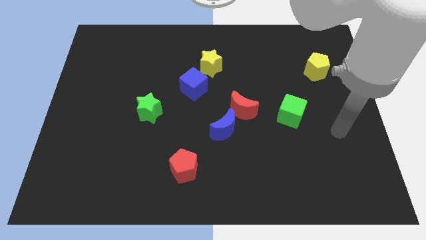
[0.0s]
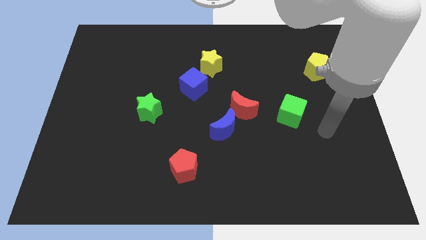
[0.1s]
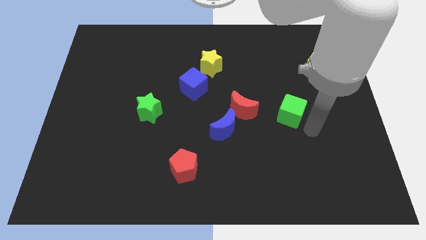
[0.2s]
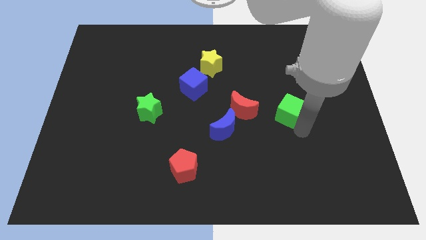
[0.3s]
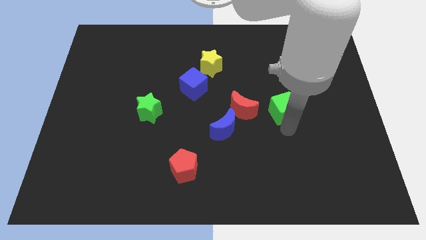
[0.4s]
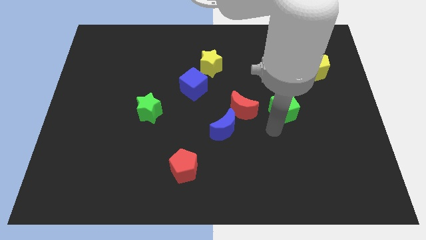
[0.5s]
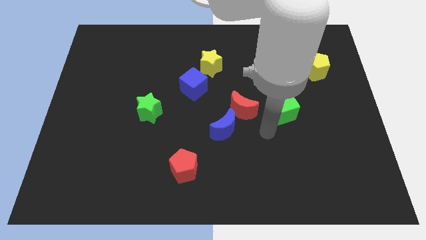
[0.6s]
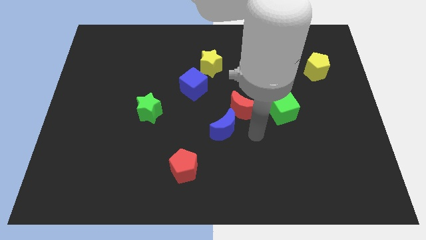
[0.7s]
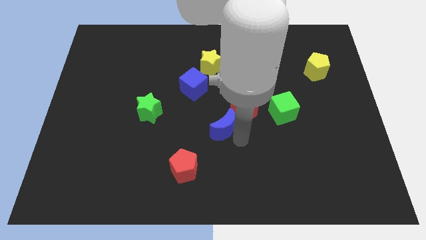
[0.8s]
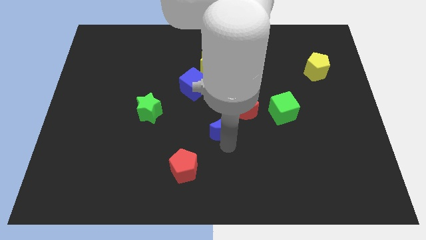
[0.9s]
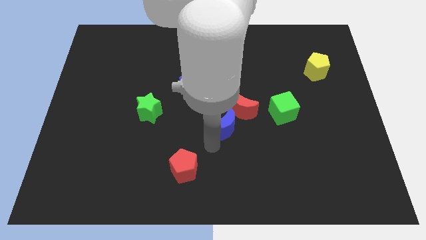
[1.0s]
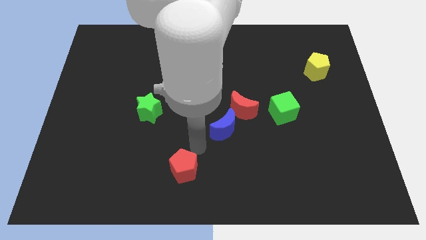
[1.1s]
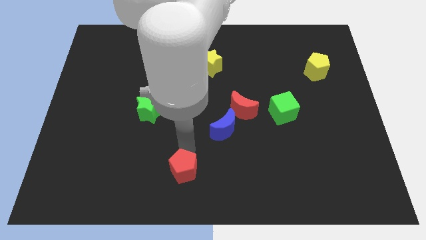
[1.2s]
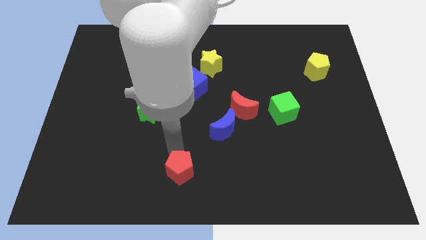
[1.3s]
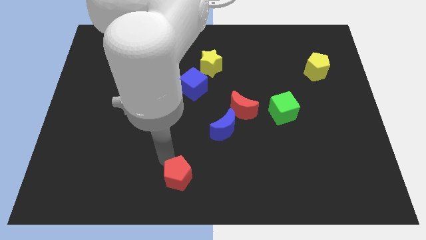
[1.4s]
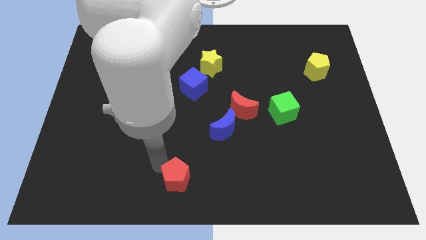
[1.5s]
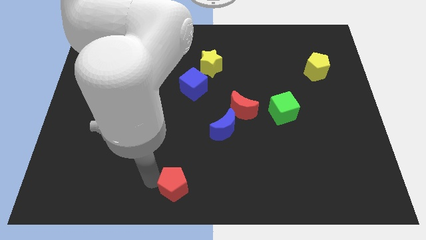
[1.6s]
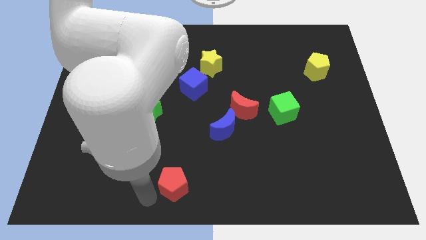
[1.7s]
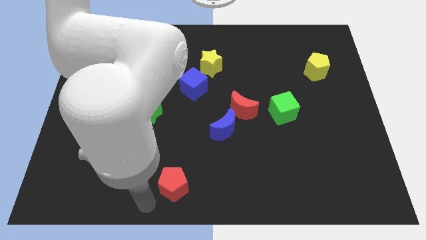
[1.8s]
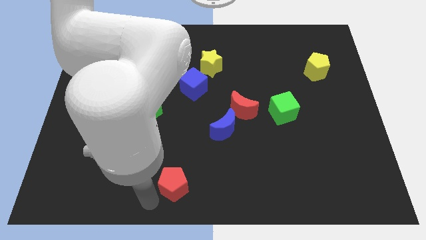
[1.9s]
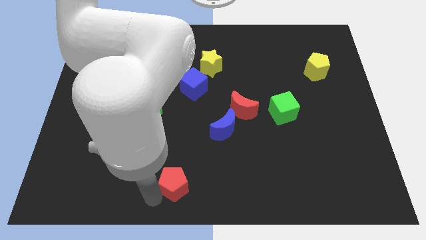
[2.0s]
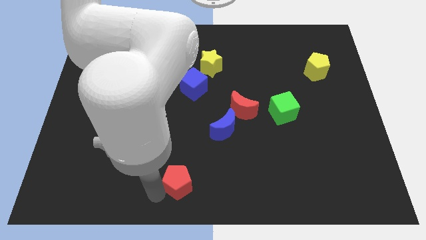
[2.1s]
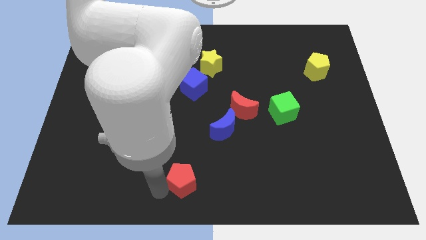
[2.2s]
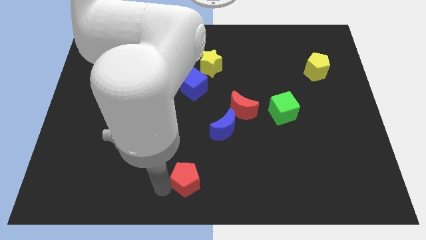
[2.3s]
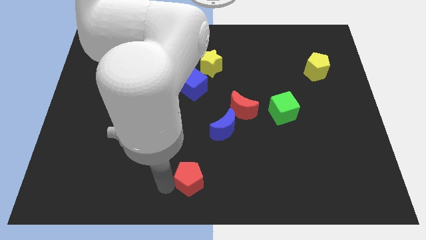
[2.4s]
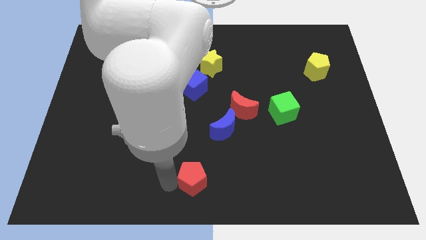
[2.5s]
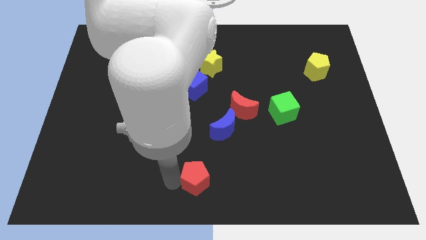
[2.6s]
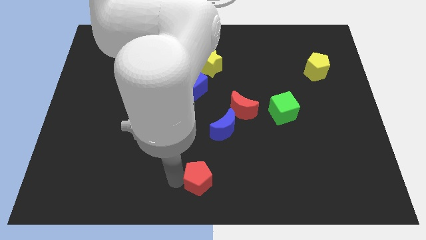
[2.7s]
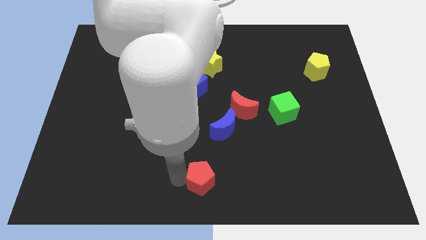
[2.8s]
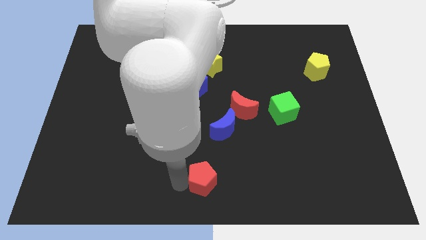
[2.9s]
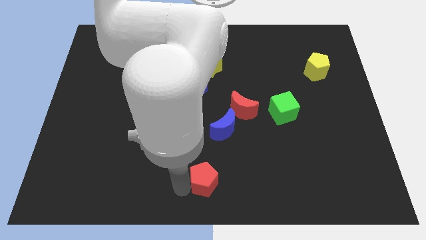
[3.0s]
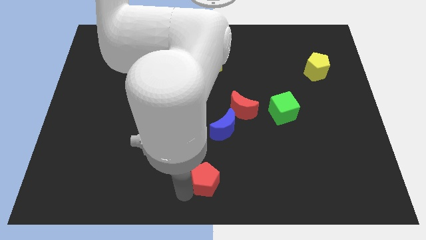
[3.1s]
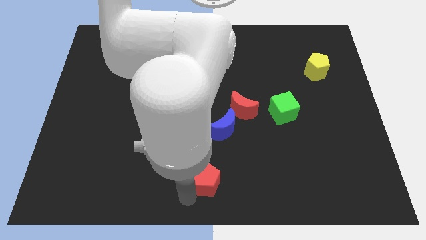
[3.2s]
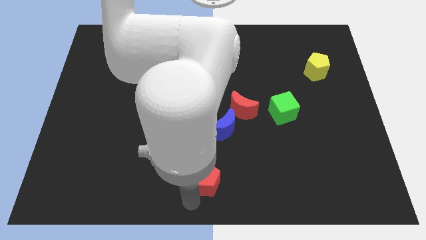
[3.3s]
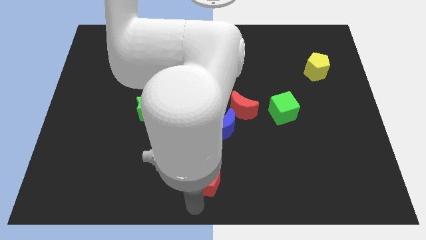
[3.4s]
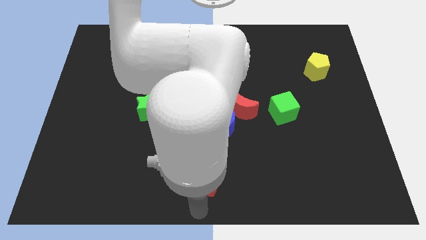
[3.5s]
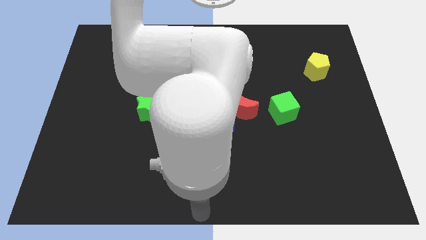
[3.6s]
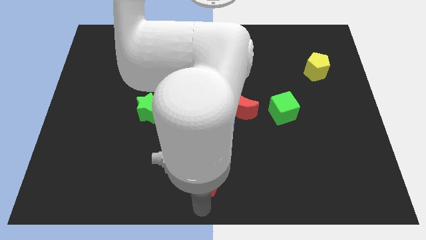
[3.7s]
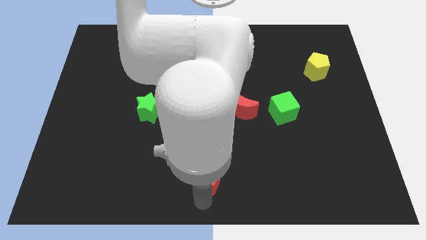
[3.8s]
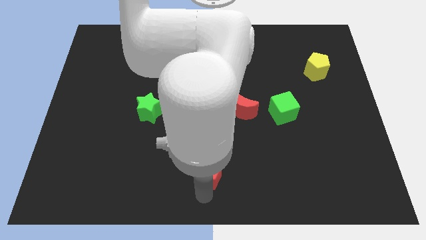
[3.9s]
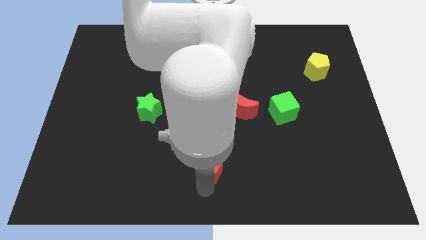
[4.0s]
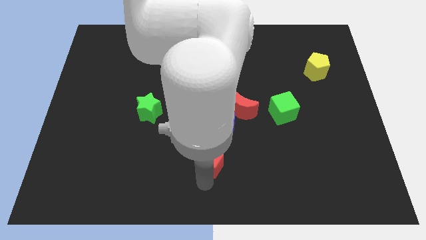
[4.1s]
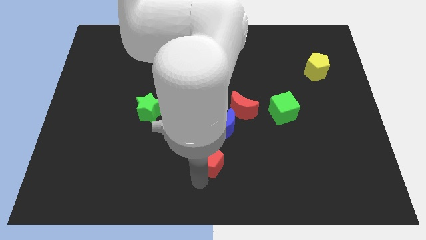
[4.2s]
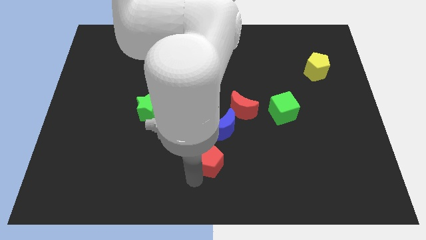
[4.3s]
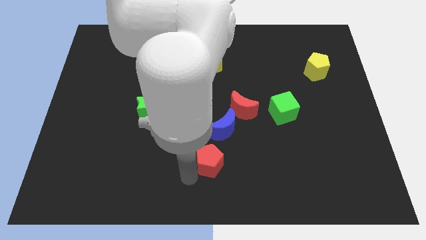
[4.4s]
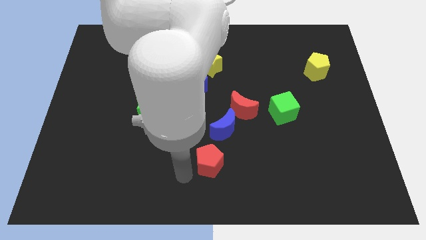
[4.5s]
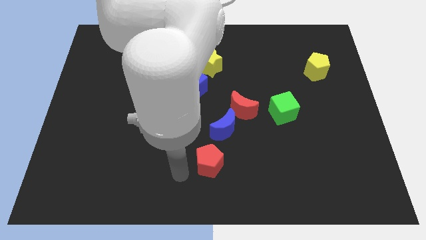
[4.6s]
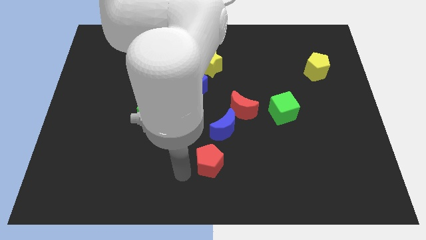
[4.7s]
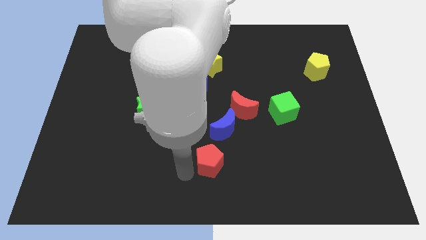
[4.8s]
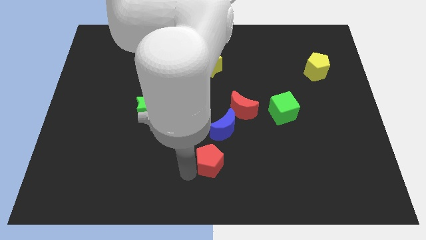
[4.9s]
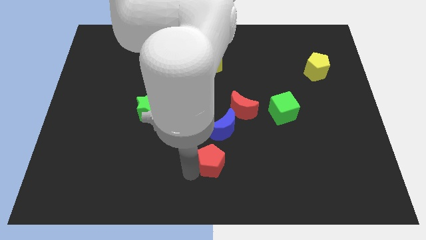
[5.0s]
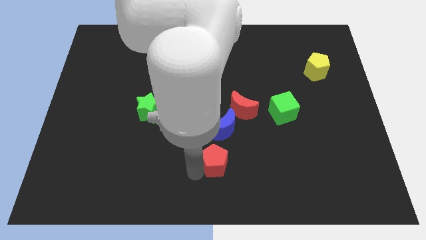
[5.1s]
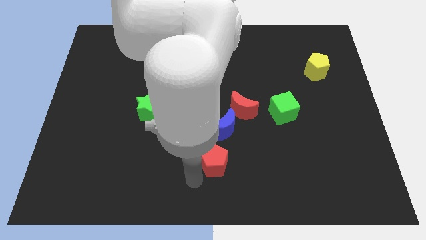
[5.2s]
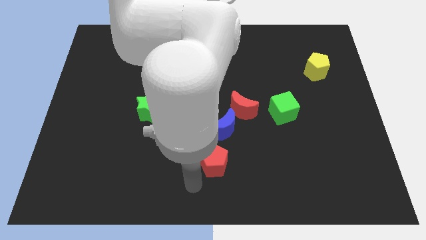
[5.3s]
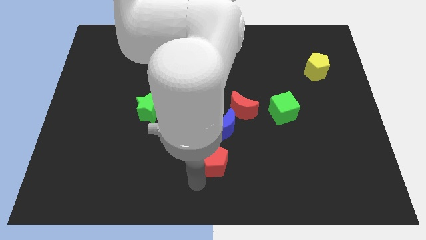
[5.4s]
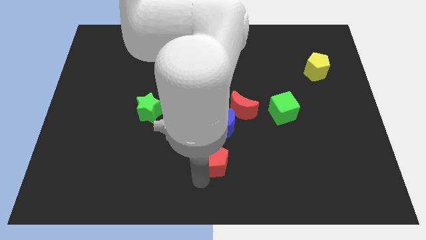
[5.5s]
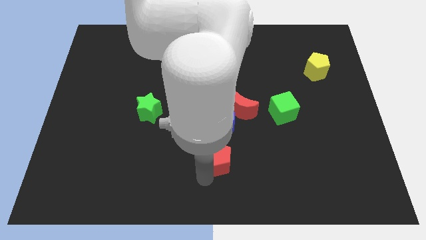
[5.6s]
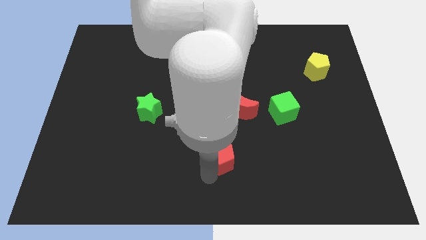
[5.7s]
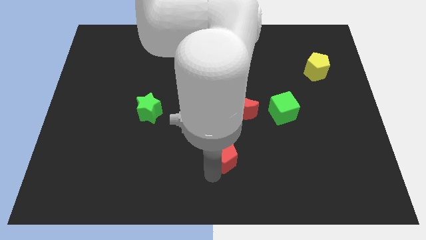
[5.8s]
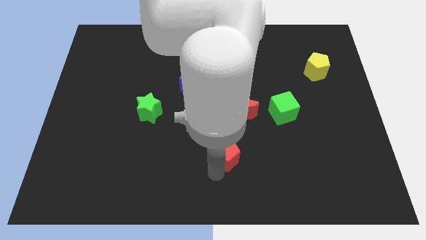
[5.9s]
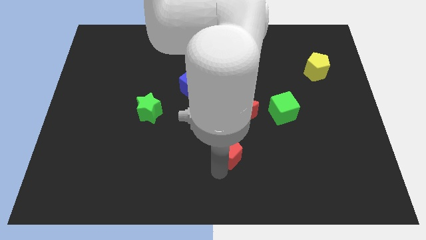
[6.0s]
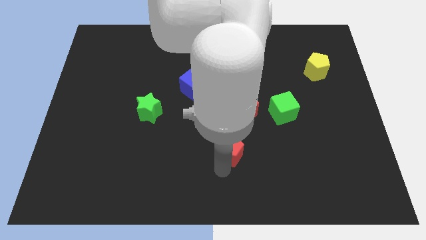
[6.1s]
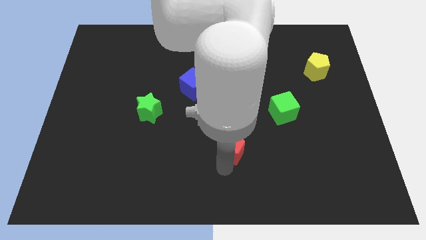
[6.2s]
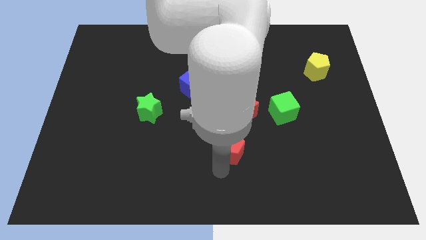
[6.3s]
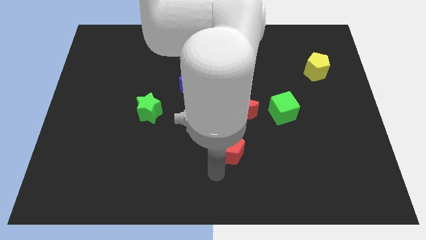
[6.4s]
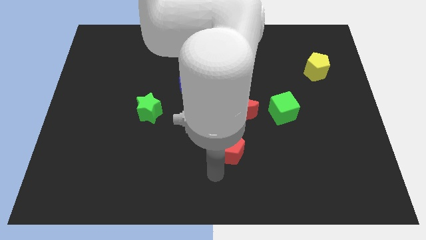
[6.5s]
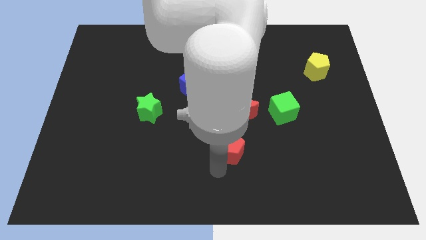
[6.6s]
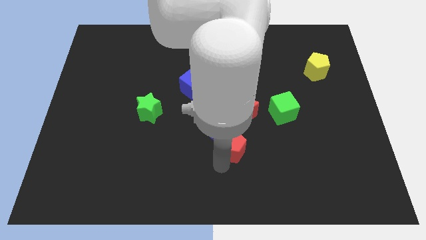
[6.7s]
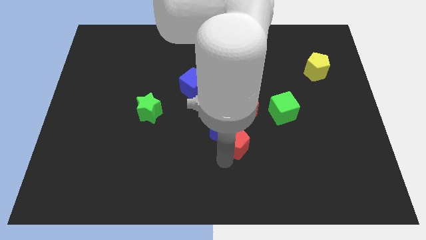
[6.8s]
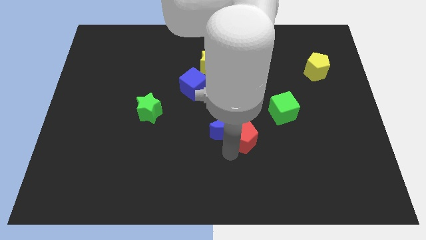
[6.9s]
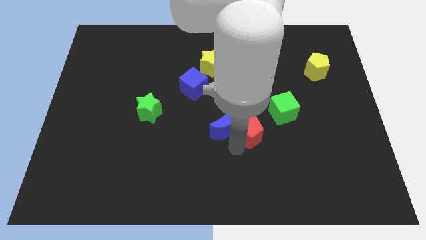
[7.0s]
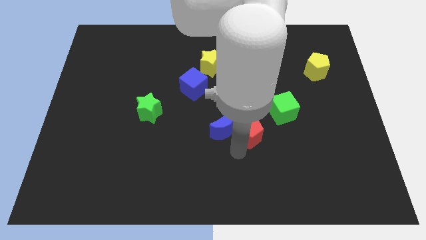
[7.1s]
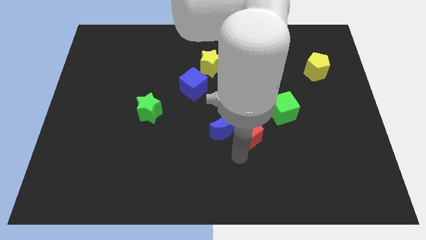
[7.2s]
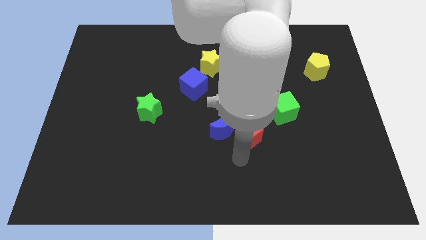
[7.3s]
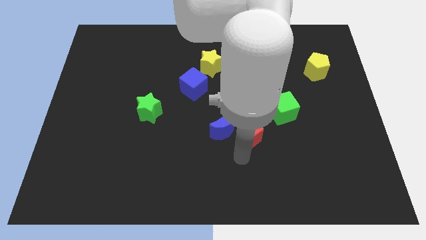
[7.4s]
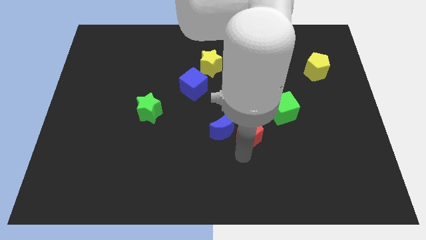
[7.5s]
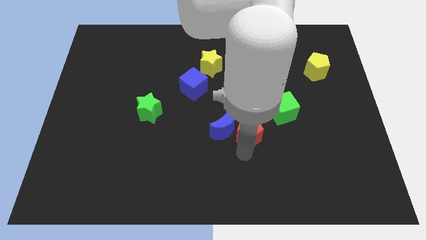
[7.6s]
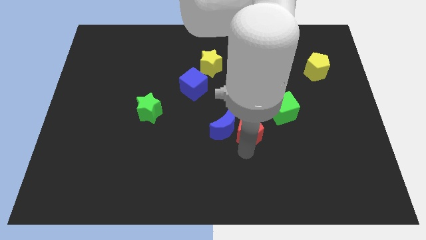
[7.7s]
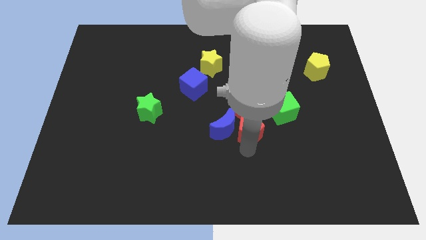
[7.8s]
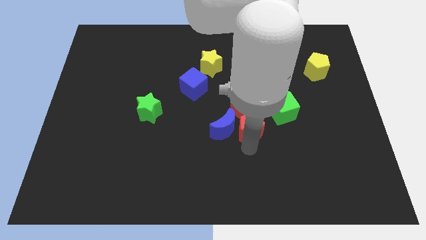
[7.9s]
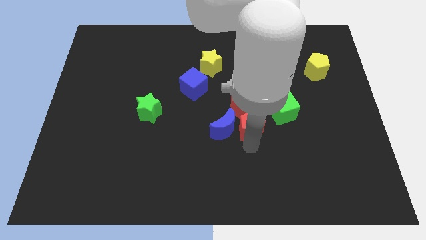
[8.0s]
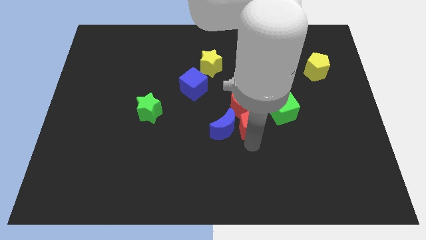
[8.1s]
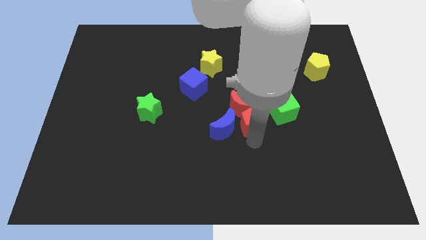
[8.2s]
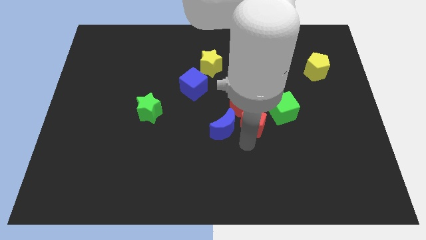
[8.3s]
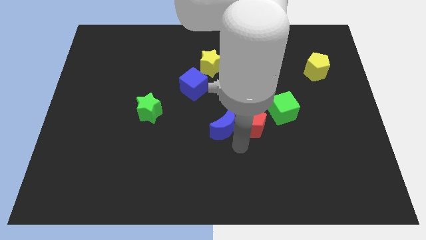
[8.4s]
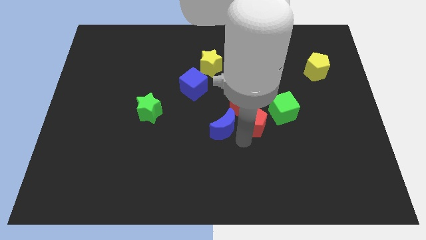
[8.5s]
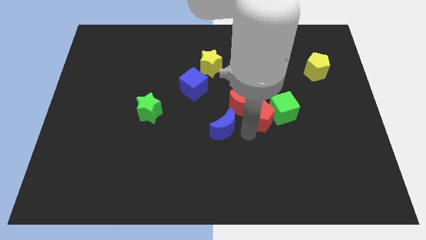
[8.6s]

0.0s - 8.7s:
move the red pentagon up and to the right diagonally
